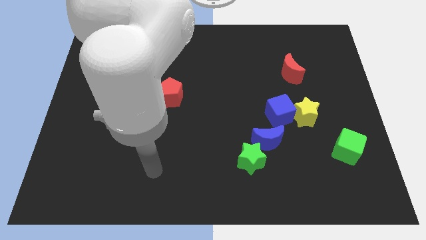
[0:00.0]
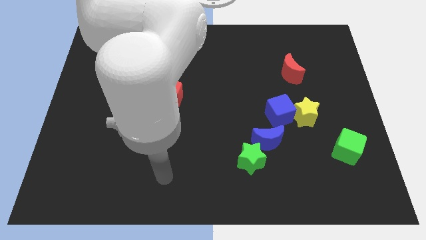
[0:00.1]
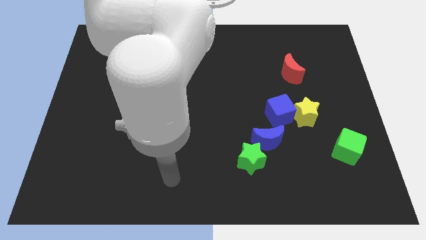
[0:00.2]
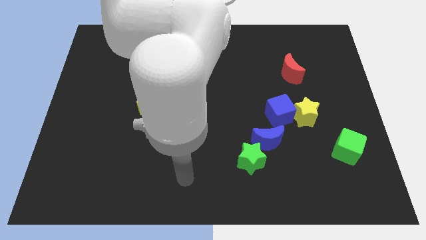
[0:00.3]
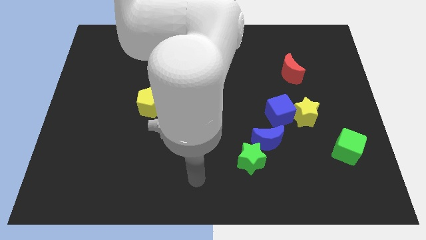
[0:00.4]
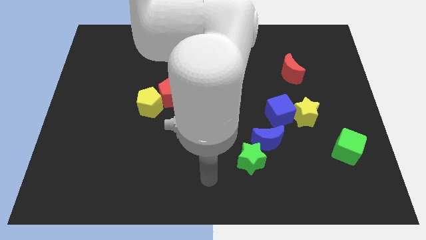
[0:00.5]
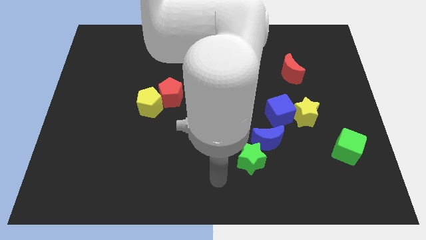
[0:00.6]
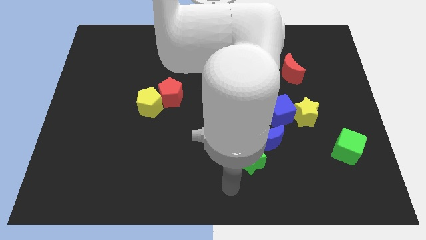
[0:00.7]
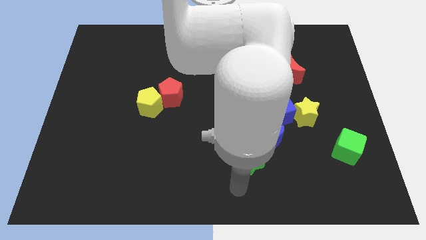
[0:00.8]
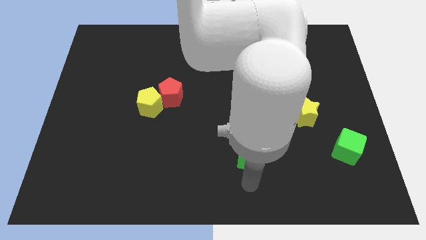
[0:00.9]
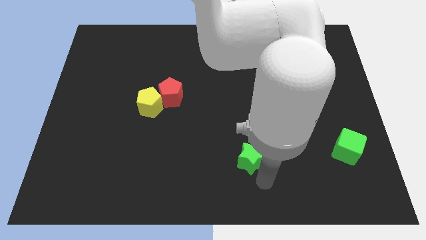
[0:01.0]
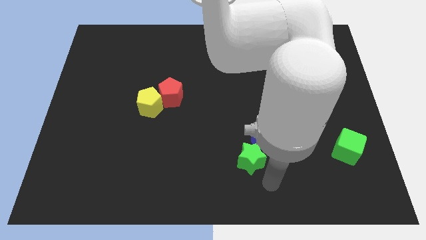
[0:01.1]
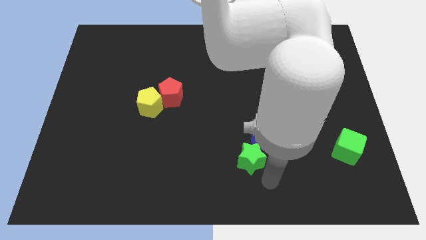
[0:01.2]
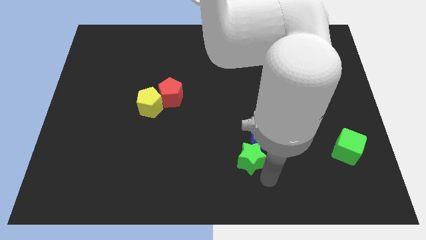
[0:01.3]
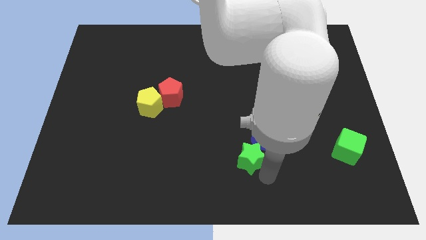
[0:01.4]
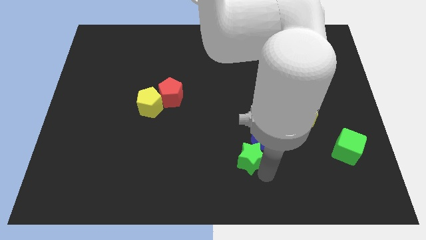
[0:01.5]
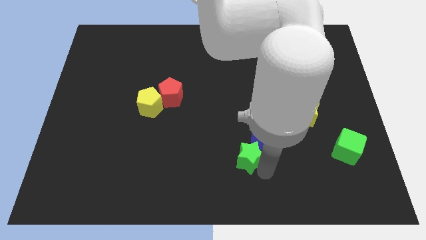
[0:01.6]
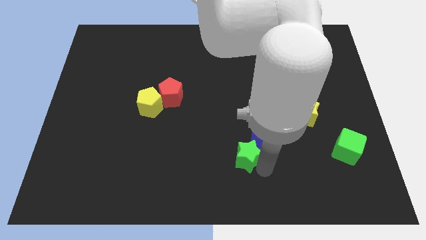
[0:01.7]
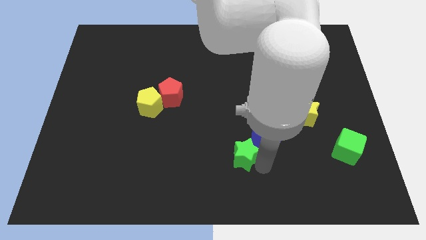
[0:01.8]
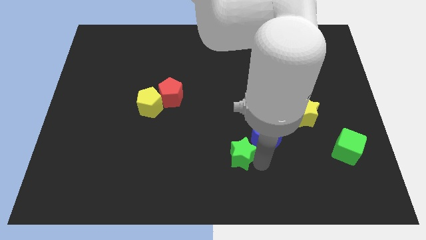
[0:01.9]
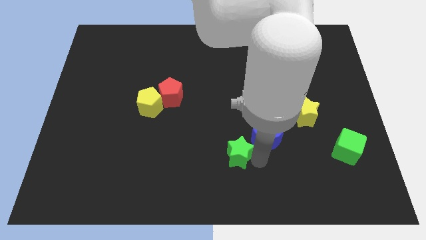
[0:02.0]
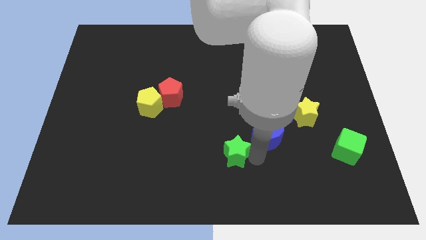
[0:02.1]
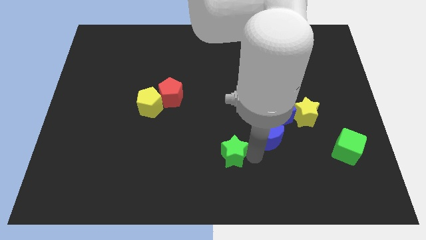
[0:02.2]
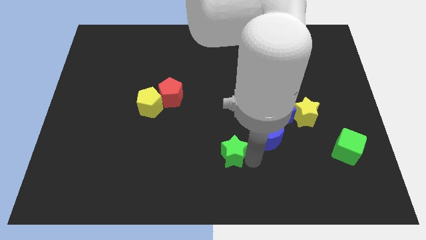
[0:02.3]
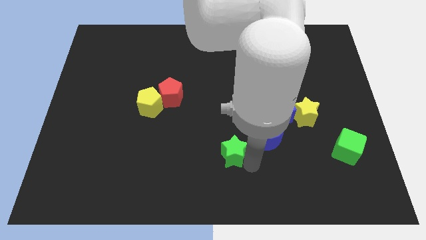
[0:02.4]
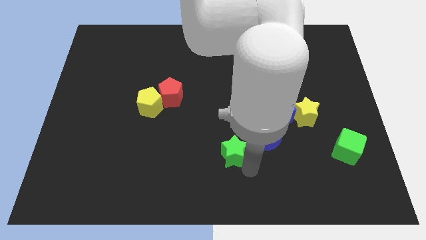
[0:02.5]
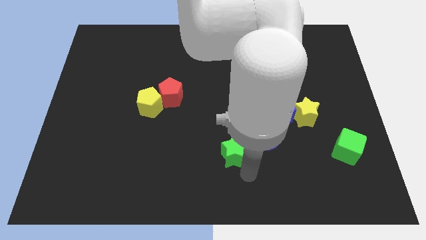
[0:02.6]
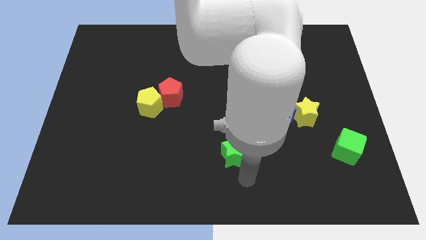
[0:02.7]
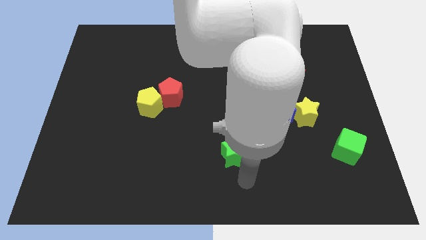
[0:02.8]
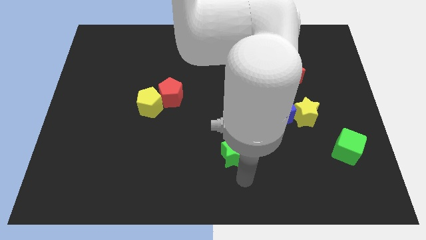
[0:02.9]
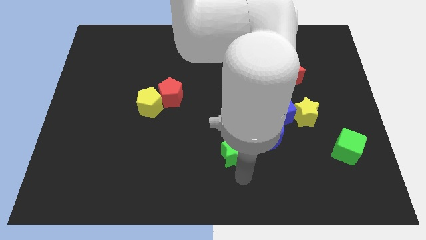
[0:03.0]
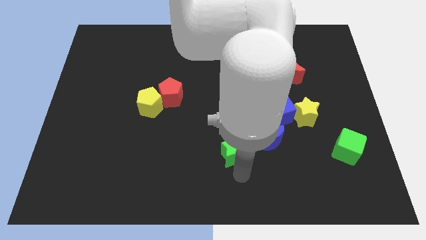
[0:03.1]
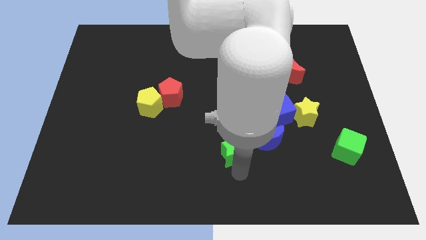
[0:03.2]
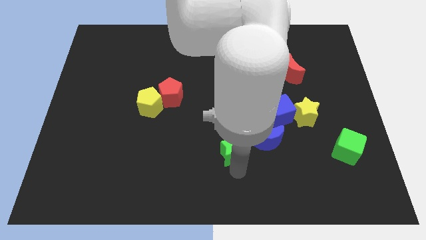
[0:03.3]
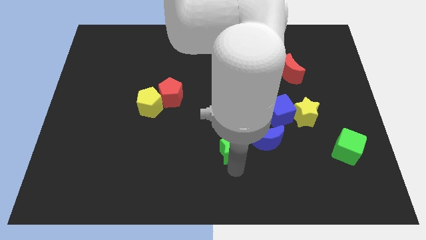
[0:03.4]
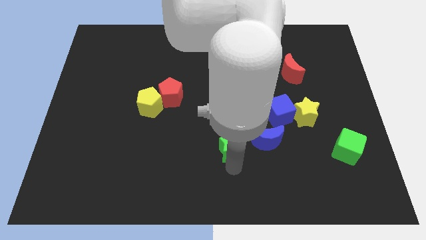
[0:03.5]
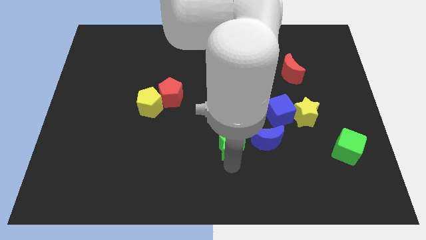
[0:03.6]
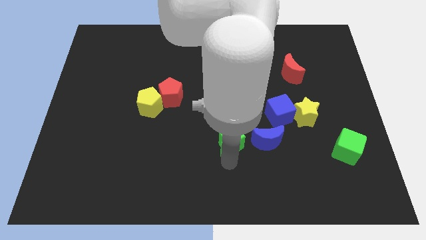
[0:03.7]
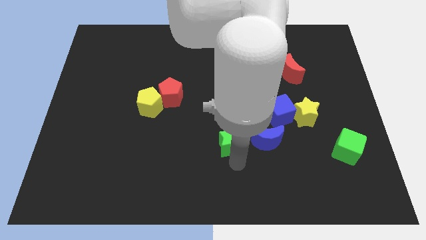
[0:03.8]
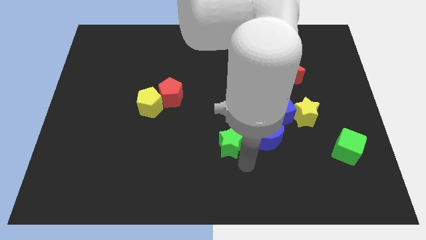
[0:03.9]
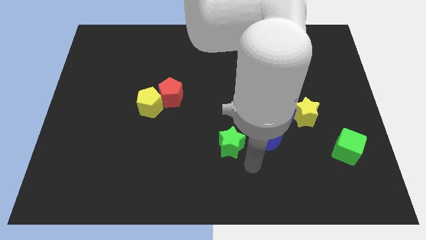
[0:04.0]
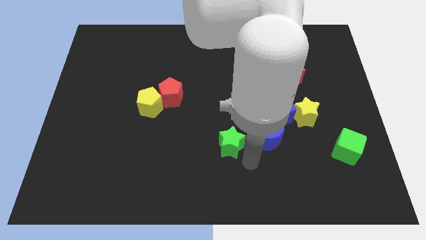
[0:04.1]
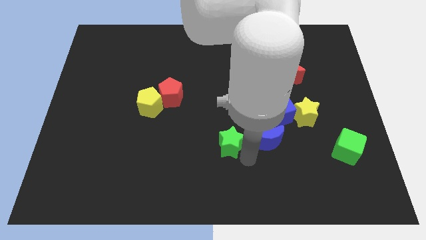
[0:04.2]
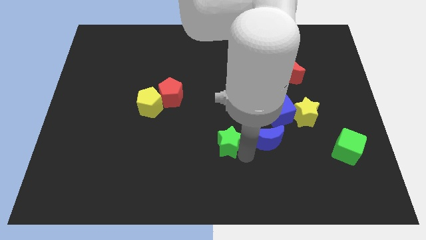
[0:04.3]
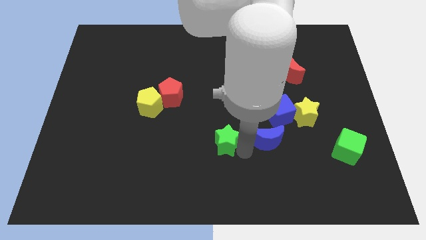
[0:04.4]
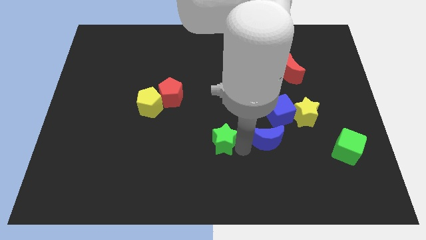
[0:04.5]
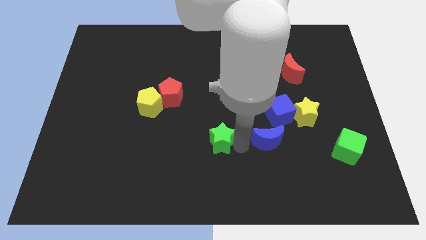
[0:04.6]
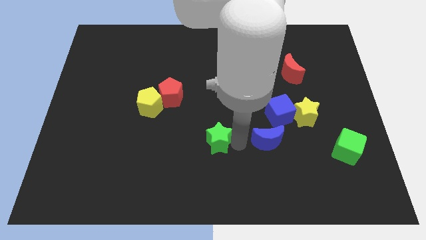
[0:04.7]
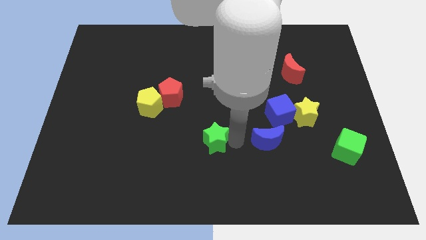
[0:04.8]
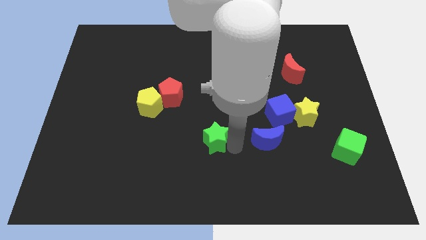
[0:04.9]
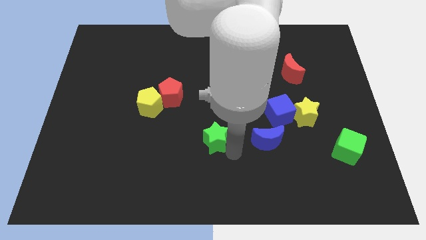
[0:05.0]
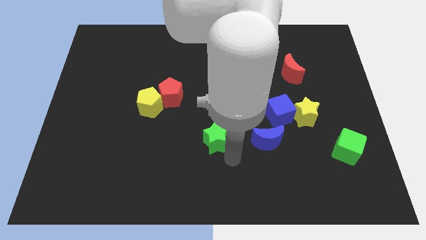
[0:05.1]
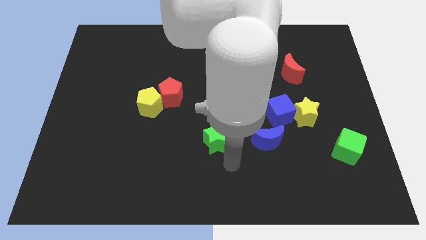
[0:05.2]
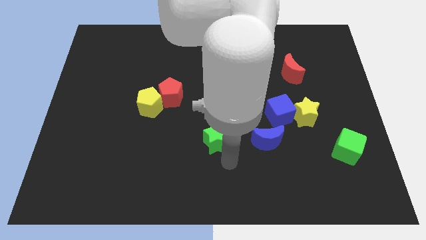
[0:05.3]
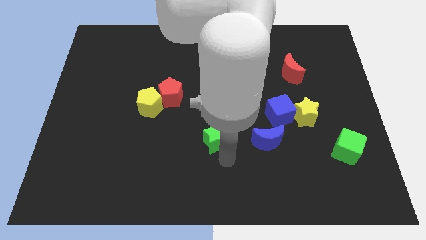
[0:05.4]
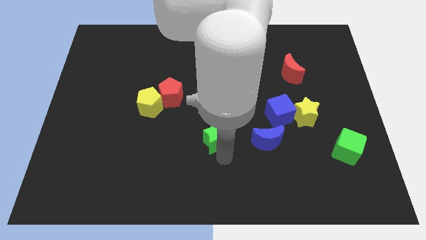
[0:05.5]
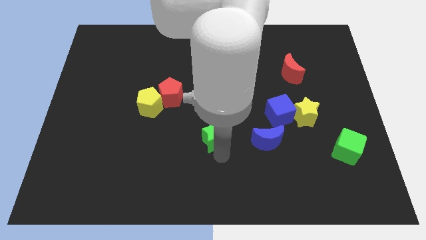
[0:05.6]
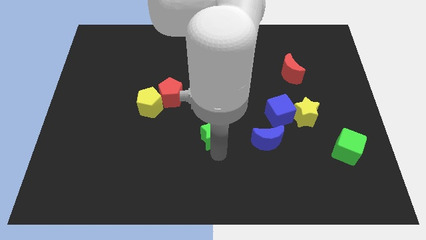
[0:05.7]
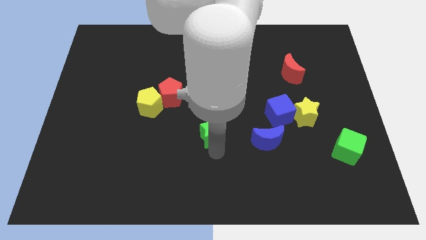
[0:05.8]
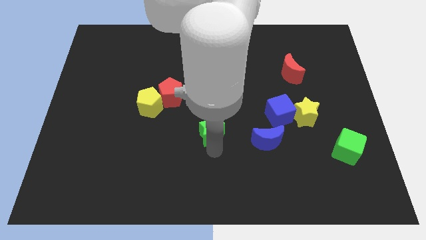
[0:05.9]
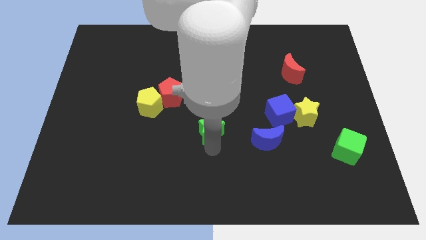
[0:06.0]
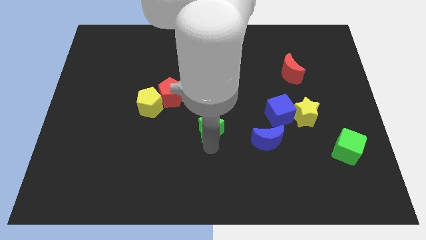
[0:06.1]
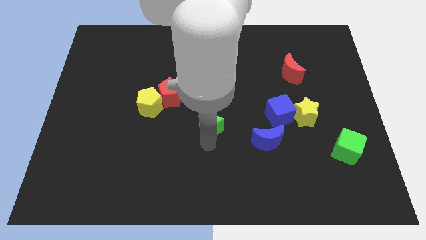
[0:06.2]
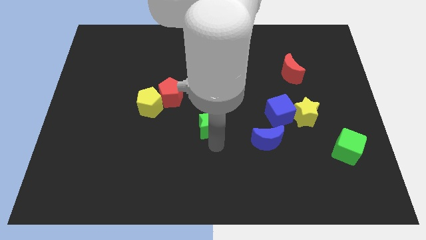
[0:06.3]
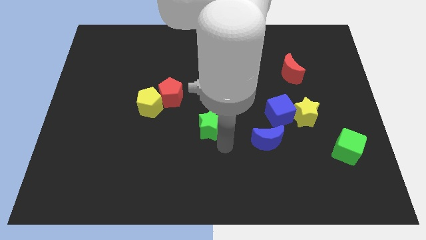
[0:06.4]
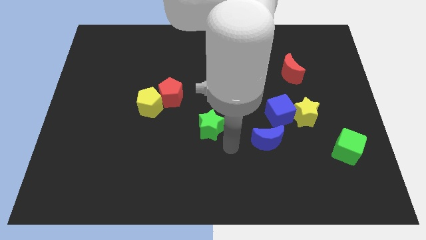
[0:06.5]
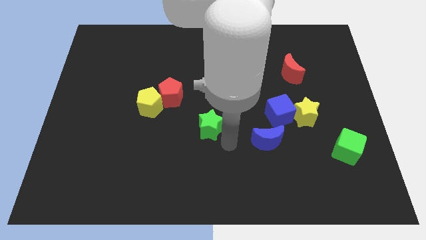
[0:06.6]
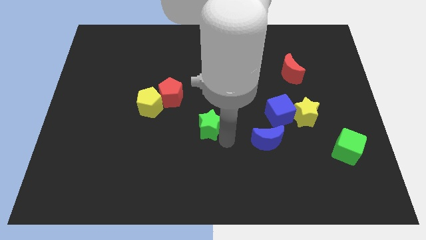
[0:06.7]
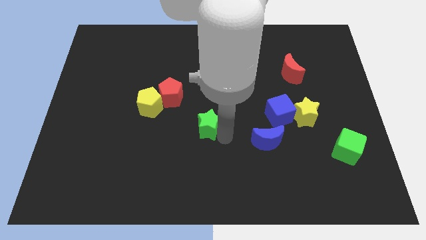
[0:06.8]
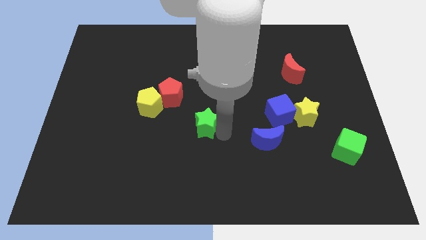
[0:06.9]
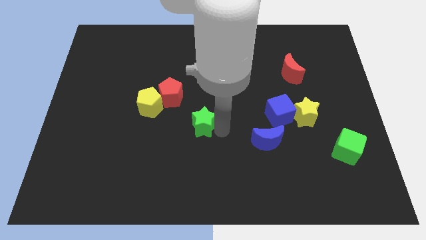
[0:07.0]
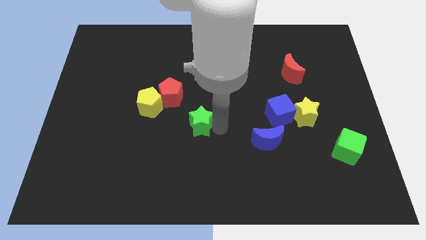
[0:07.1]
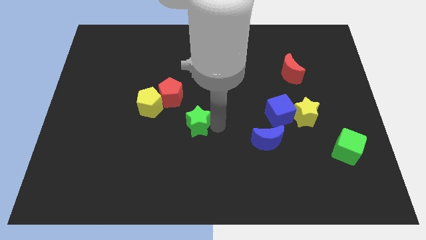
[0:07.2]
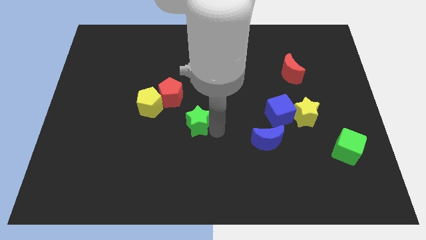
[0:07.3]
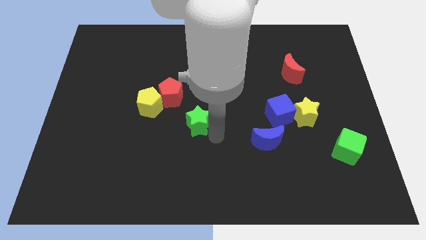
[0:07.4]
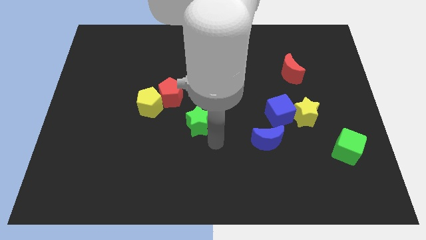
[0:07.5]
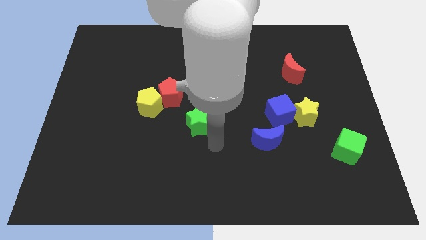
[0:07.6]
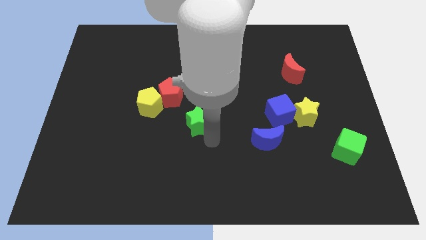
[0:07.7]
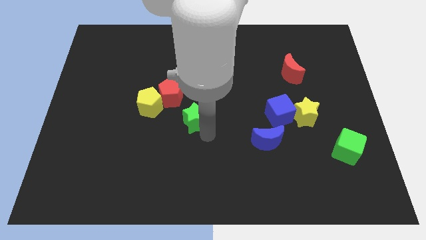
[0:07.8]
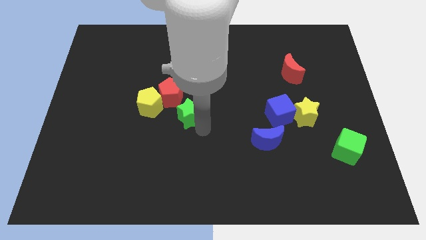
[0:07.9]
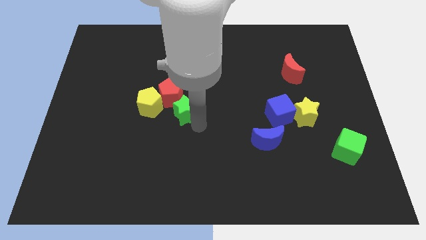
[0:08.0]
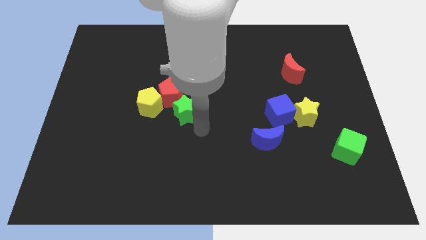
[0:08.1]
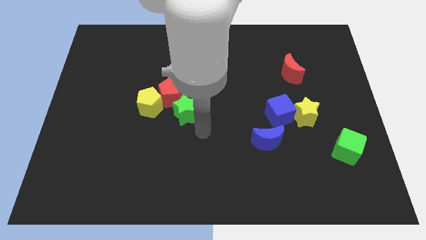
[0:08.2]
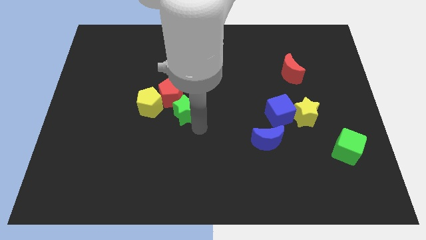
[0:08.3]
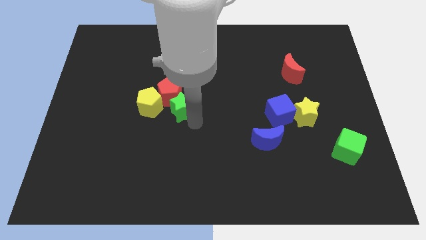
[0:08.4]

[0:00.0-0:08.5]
slide the green star close to the red pentagon
